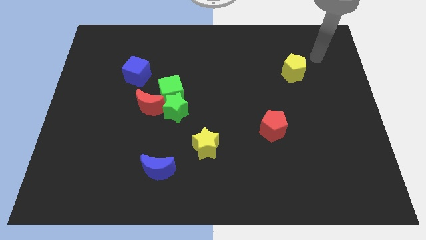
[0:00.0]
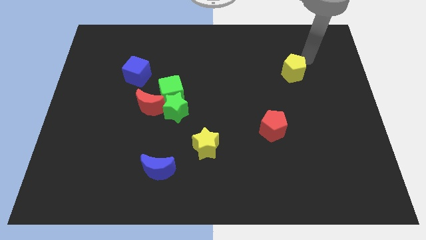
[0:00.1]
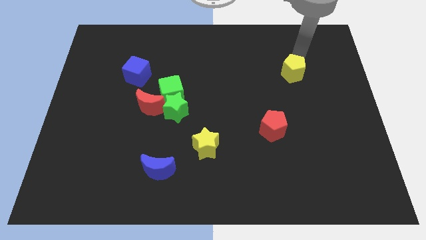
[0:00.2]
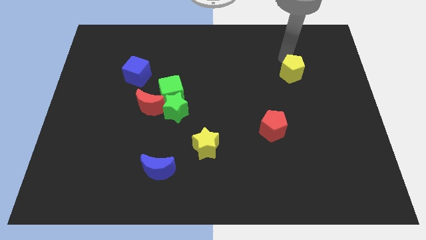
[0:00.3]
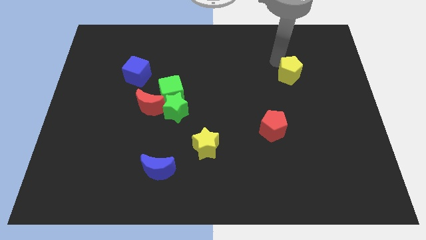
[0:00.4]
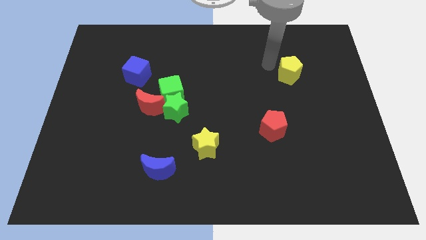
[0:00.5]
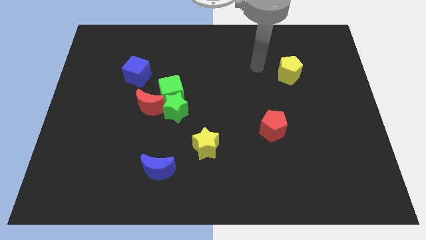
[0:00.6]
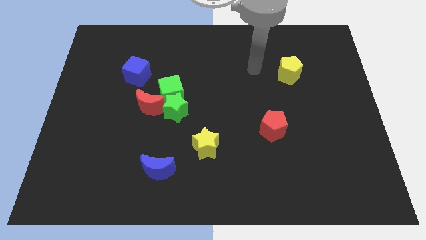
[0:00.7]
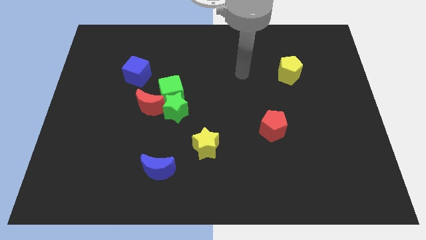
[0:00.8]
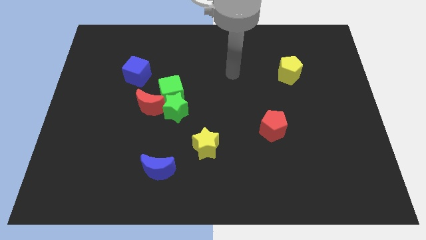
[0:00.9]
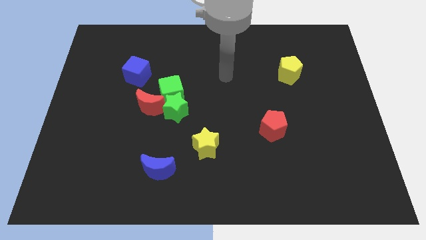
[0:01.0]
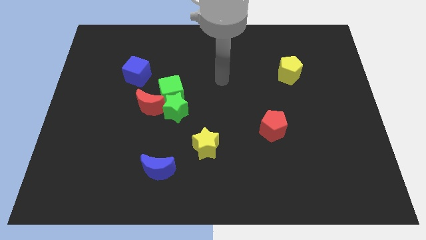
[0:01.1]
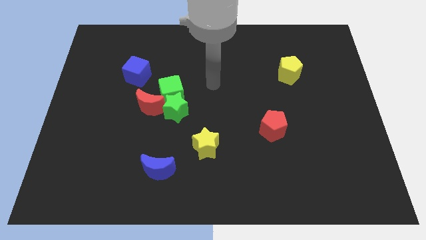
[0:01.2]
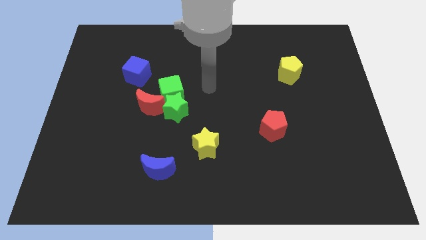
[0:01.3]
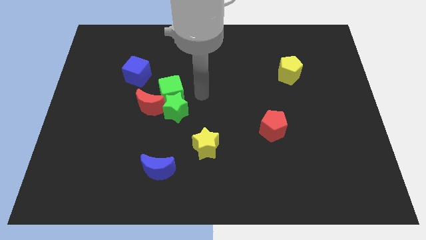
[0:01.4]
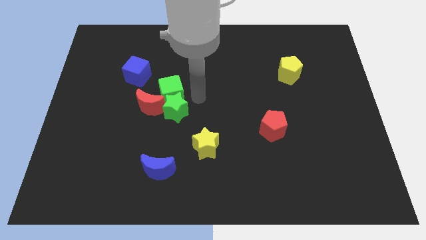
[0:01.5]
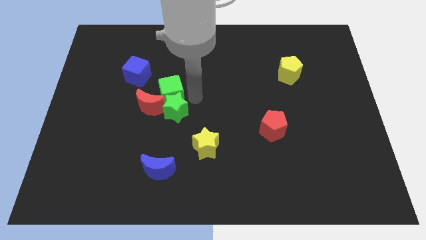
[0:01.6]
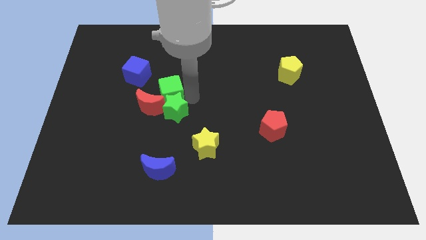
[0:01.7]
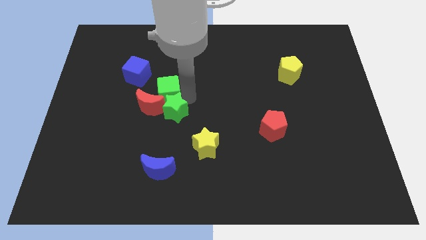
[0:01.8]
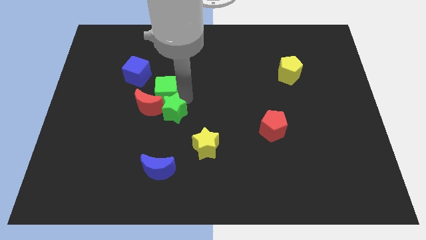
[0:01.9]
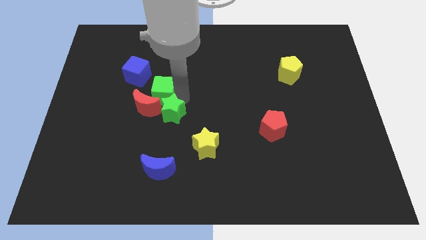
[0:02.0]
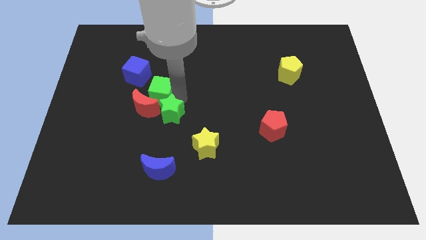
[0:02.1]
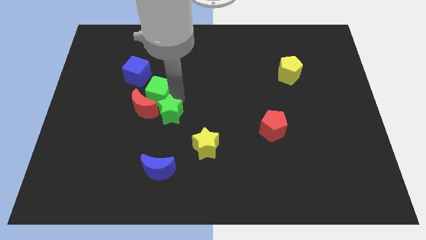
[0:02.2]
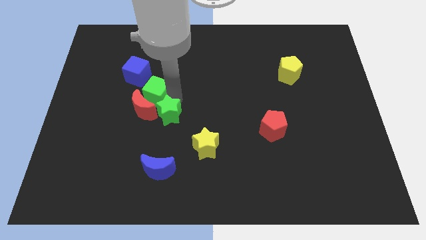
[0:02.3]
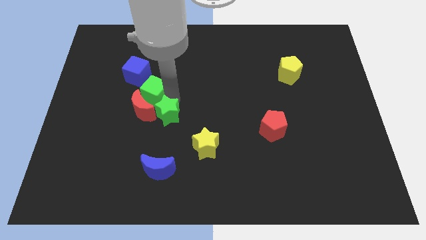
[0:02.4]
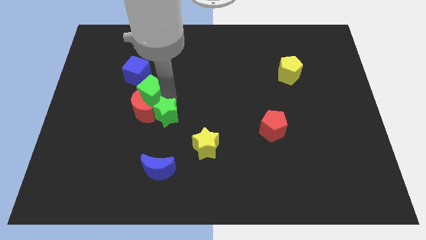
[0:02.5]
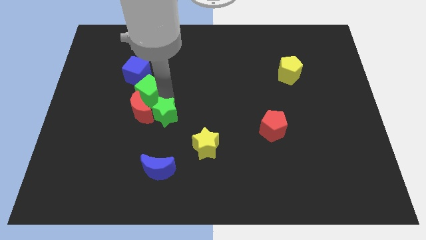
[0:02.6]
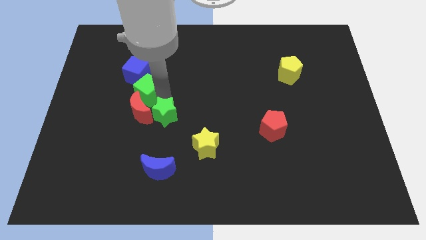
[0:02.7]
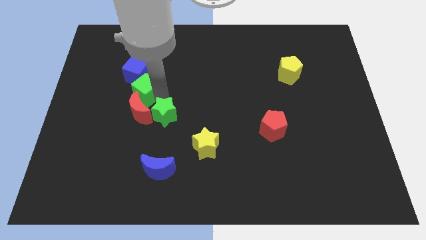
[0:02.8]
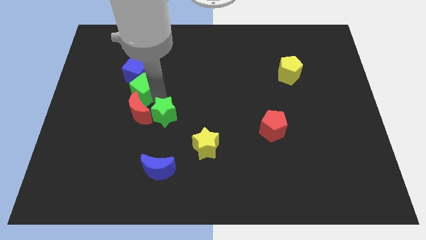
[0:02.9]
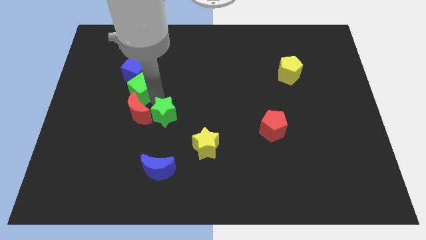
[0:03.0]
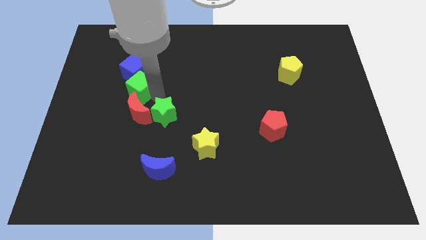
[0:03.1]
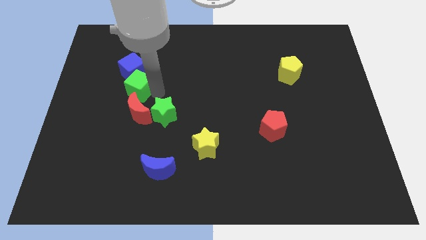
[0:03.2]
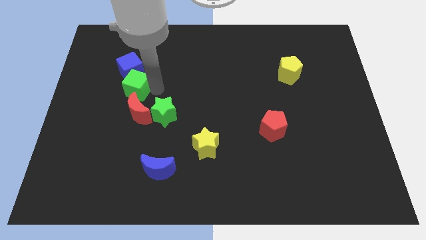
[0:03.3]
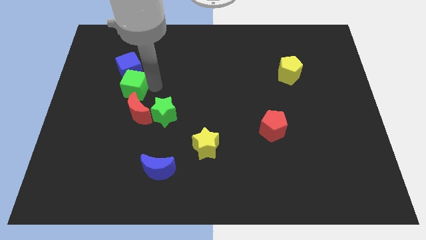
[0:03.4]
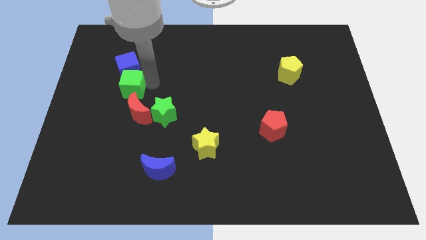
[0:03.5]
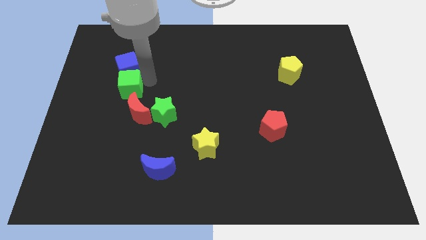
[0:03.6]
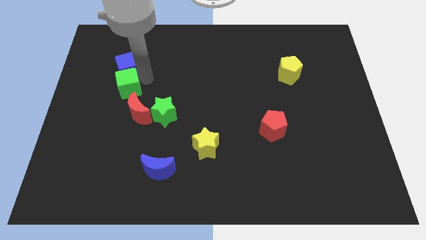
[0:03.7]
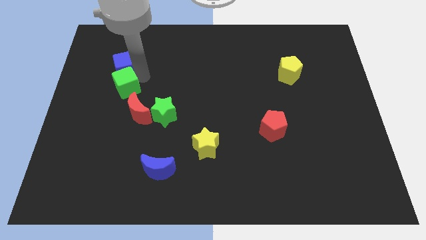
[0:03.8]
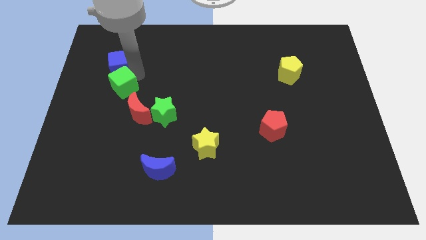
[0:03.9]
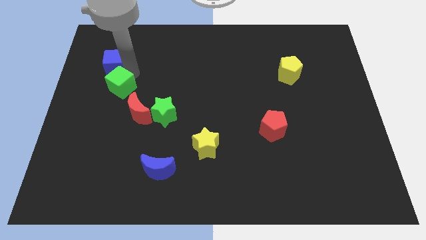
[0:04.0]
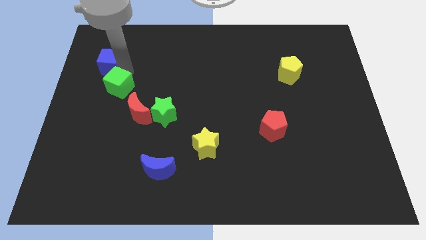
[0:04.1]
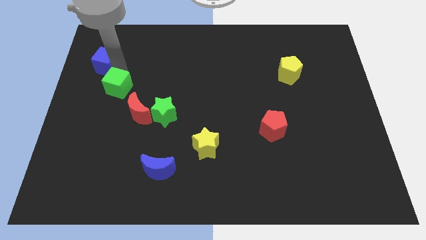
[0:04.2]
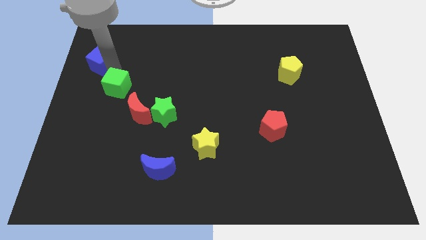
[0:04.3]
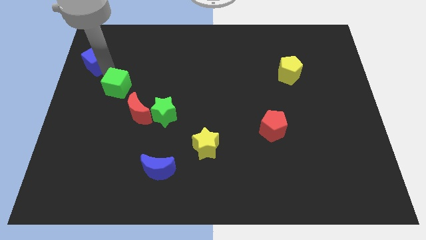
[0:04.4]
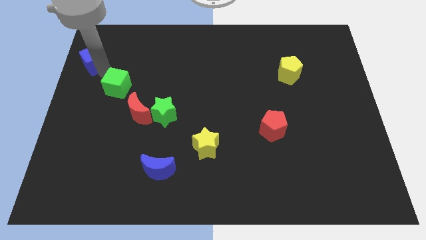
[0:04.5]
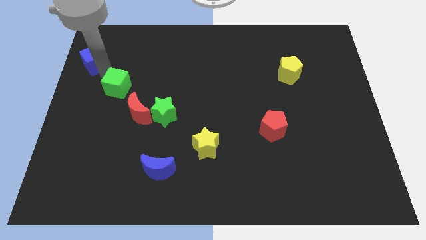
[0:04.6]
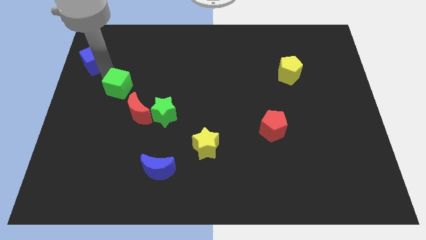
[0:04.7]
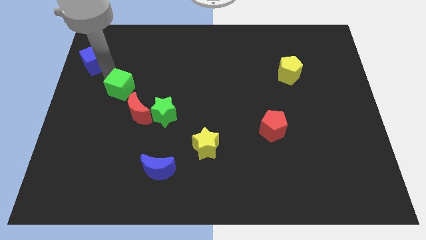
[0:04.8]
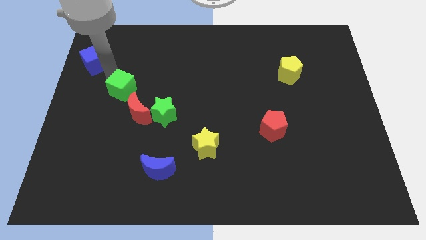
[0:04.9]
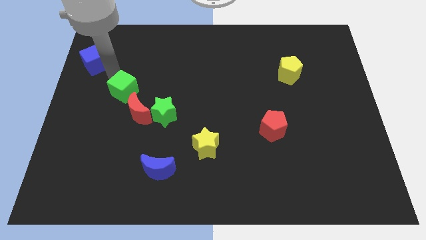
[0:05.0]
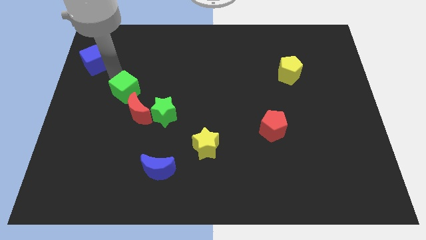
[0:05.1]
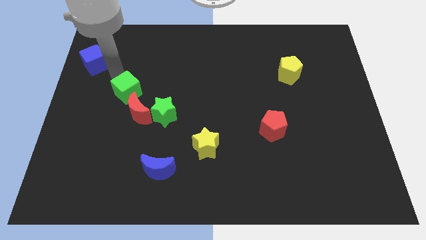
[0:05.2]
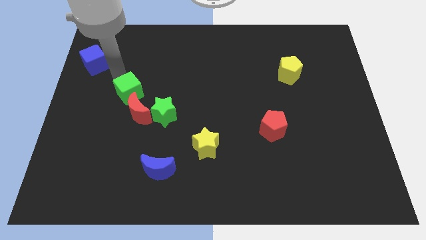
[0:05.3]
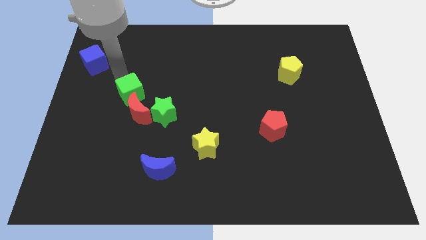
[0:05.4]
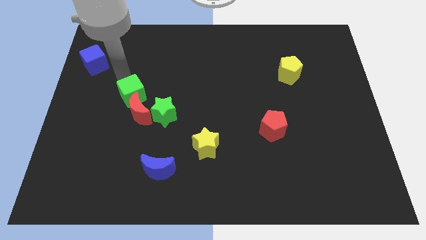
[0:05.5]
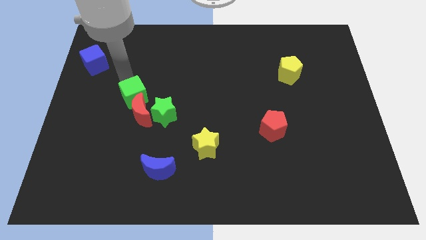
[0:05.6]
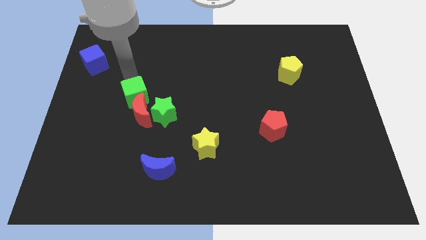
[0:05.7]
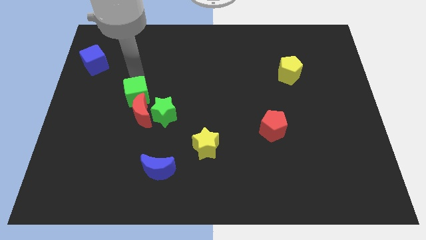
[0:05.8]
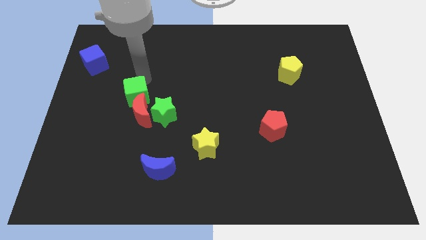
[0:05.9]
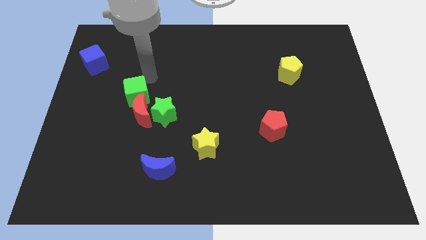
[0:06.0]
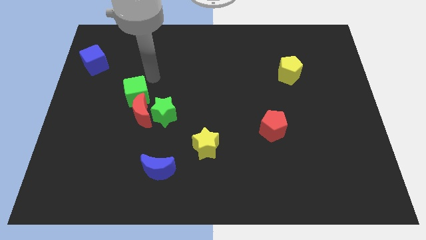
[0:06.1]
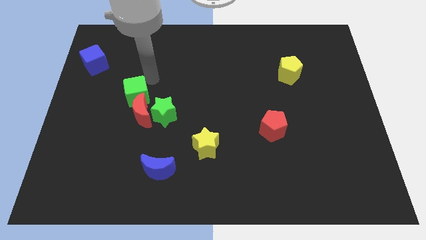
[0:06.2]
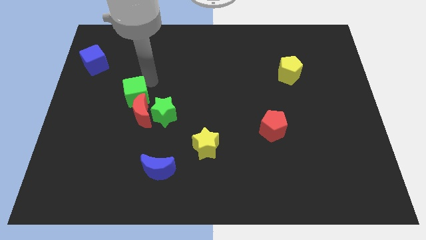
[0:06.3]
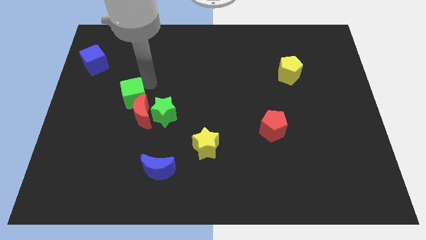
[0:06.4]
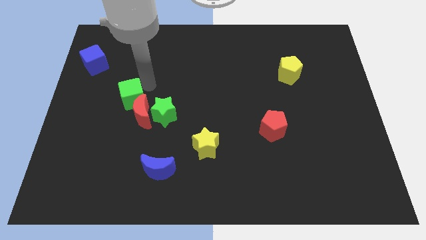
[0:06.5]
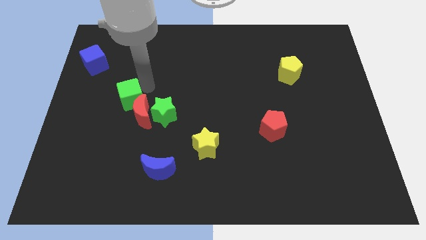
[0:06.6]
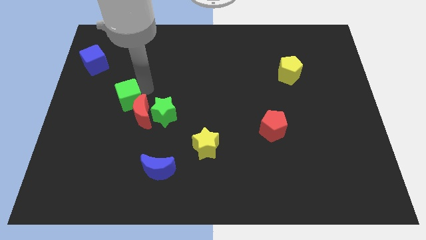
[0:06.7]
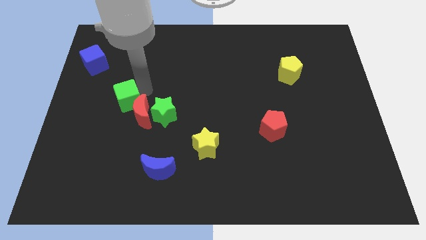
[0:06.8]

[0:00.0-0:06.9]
push the green cube diagonally down and left slightly

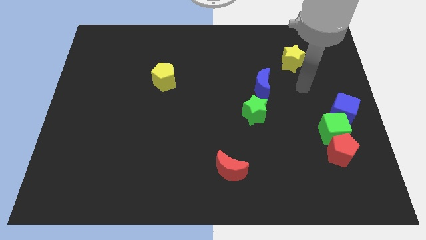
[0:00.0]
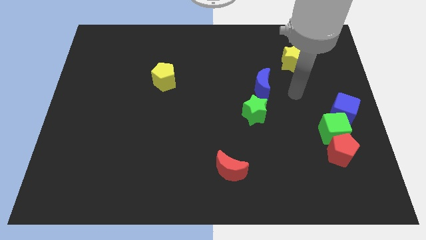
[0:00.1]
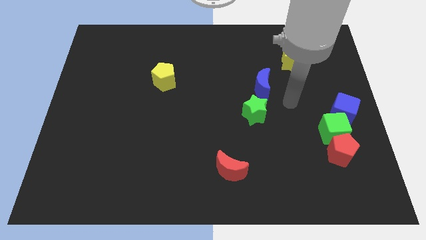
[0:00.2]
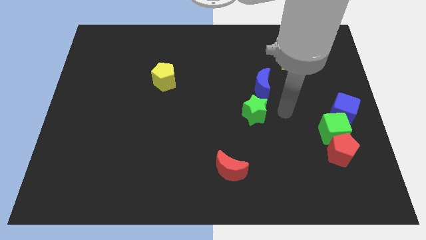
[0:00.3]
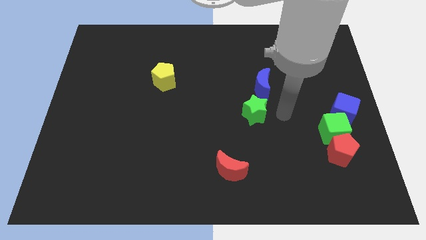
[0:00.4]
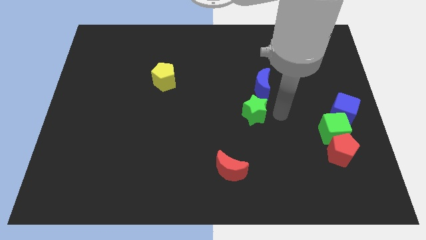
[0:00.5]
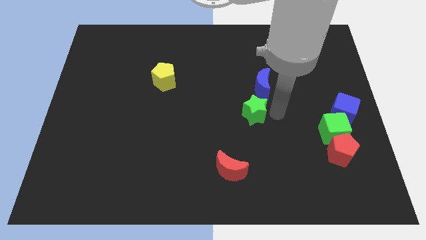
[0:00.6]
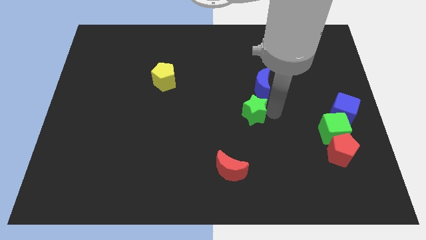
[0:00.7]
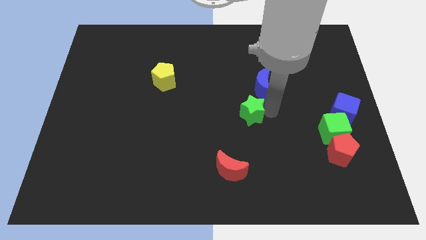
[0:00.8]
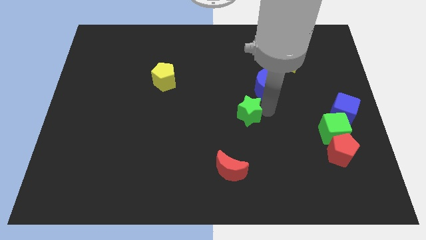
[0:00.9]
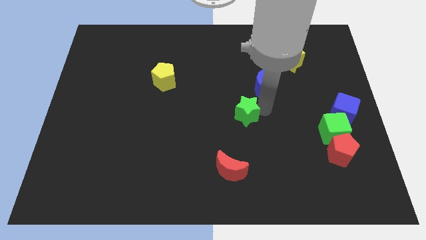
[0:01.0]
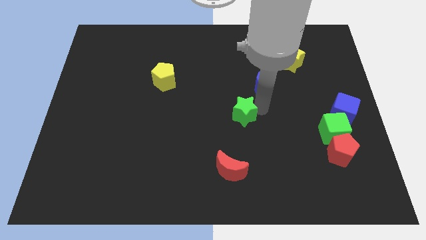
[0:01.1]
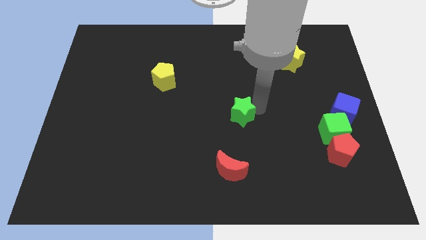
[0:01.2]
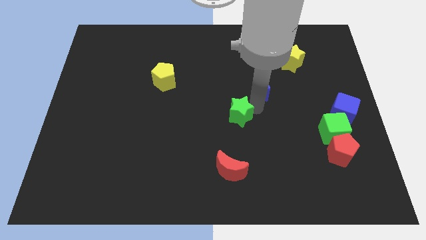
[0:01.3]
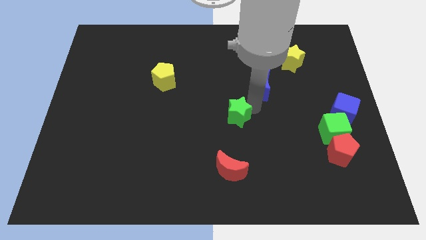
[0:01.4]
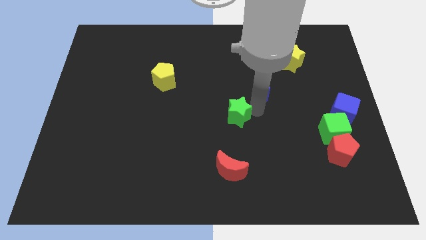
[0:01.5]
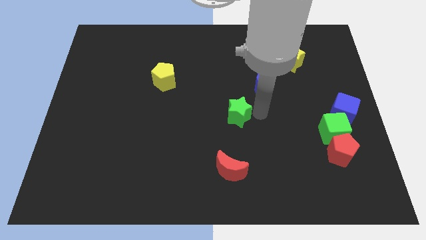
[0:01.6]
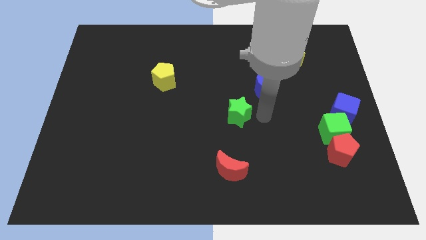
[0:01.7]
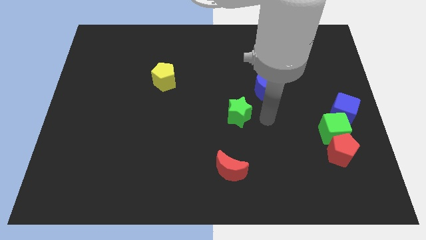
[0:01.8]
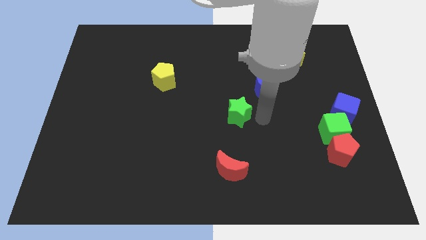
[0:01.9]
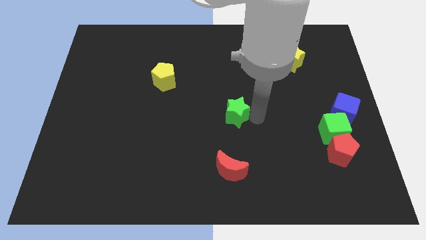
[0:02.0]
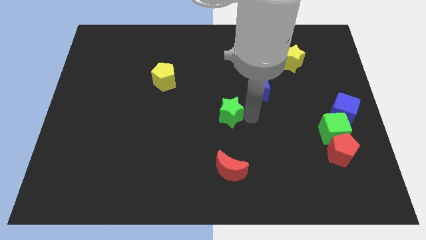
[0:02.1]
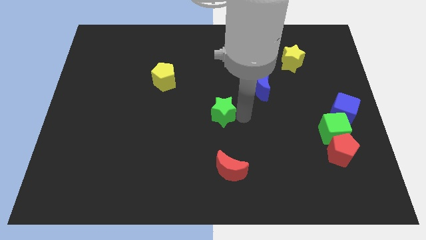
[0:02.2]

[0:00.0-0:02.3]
move the green star left somewhat
